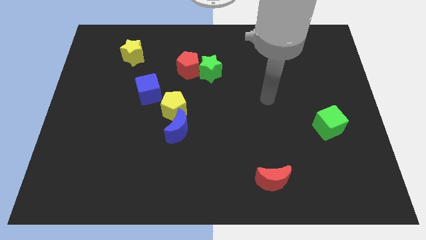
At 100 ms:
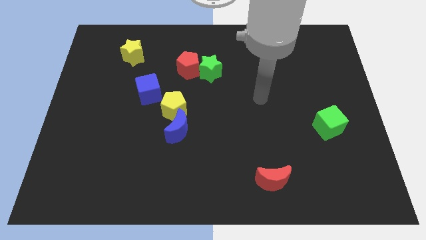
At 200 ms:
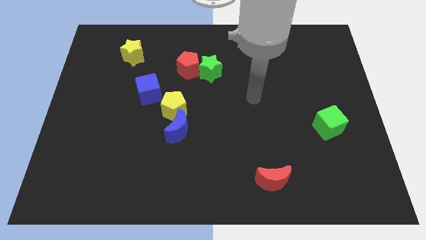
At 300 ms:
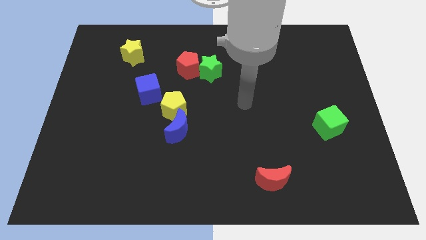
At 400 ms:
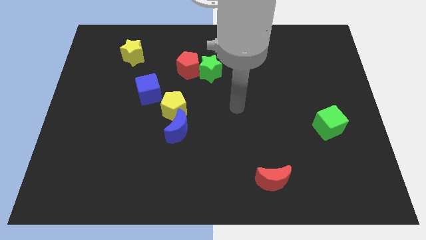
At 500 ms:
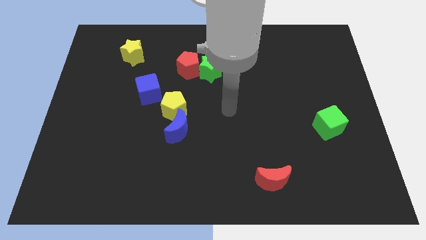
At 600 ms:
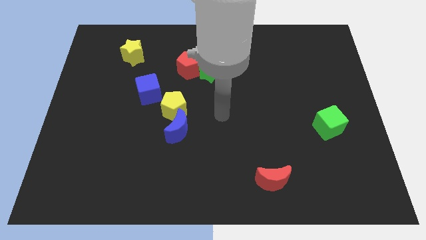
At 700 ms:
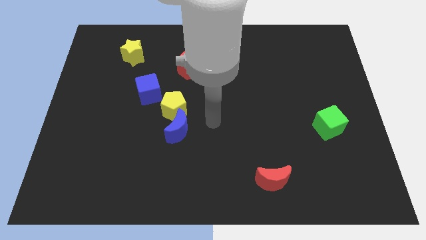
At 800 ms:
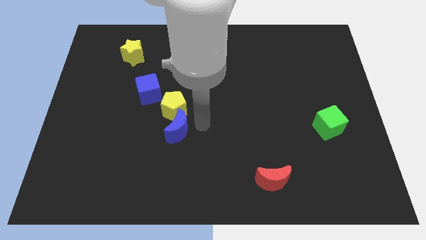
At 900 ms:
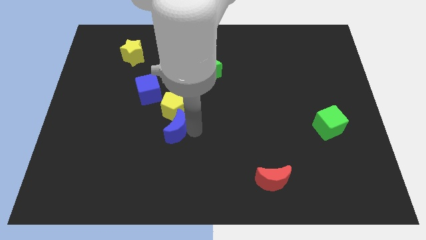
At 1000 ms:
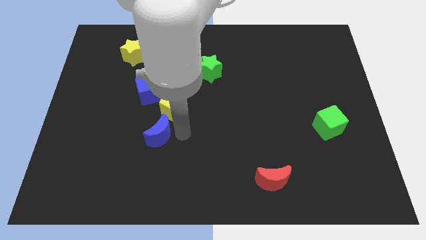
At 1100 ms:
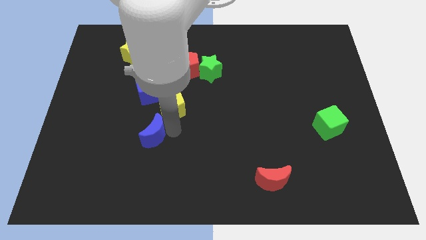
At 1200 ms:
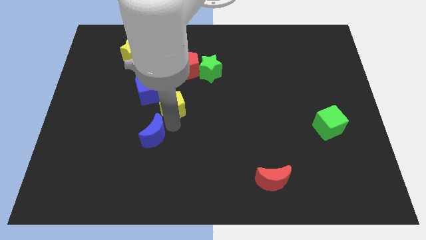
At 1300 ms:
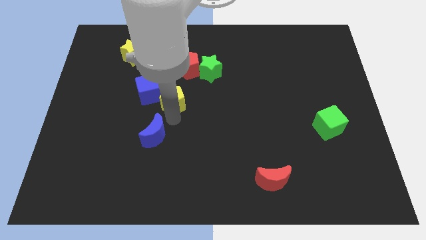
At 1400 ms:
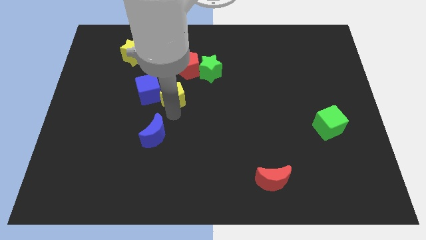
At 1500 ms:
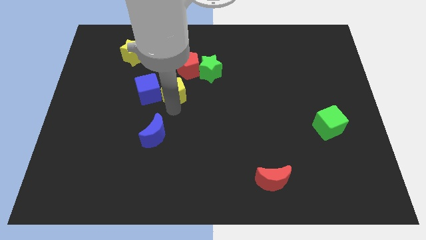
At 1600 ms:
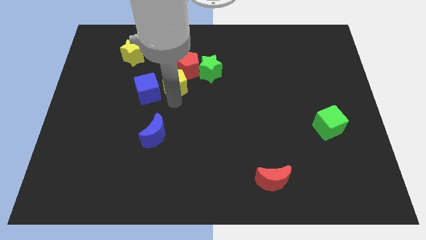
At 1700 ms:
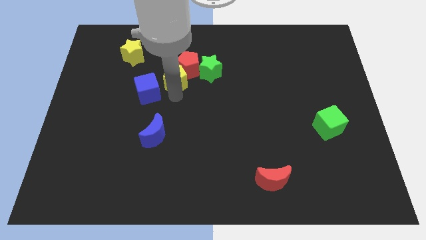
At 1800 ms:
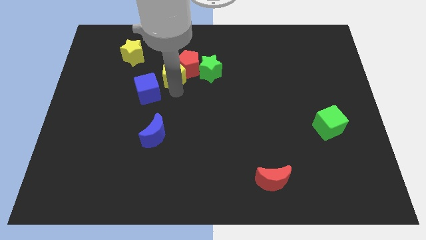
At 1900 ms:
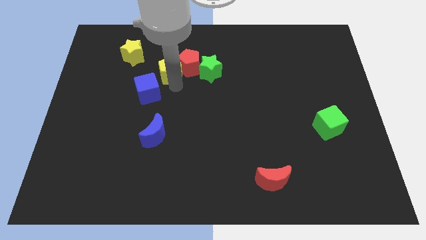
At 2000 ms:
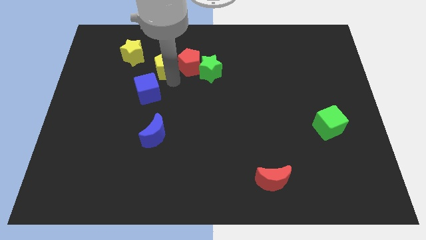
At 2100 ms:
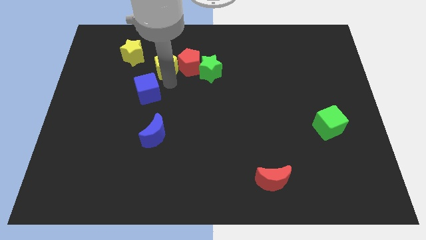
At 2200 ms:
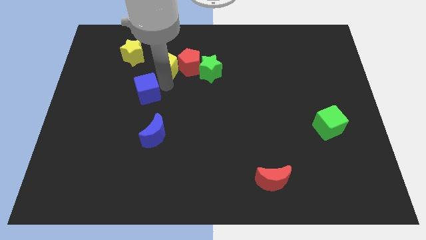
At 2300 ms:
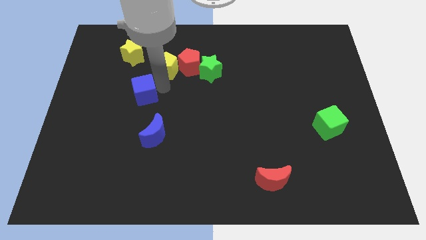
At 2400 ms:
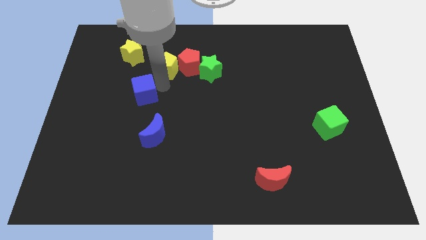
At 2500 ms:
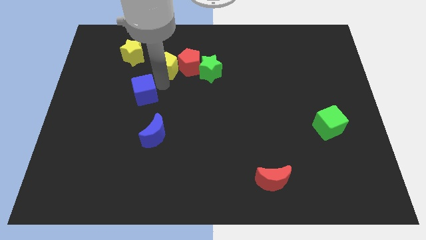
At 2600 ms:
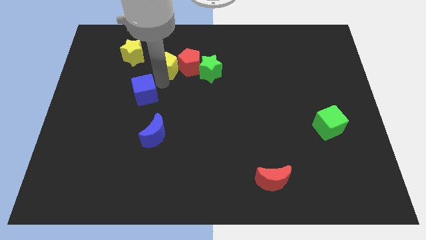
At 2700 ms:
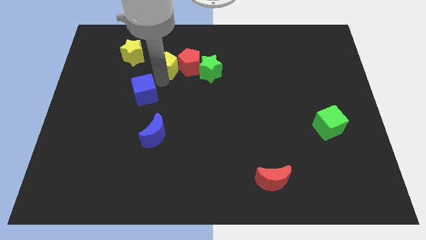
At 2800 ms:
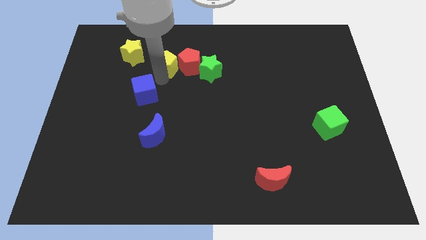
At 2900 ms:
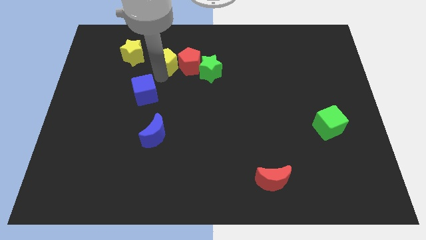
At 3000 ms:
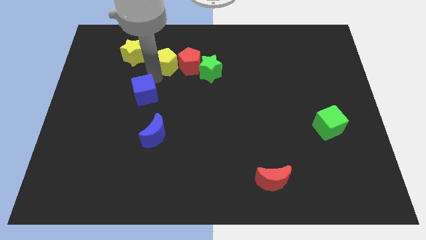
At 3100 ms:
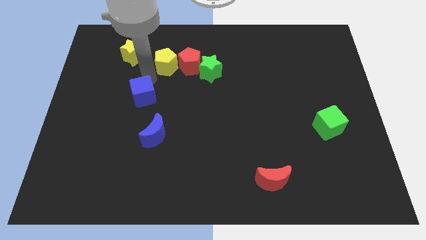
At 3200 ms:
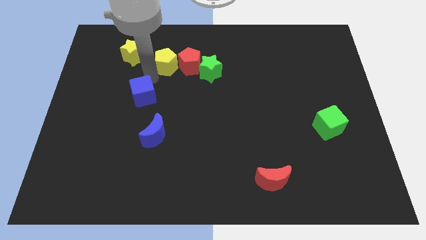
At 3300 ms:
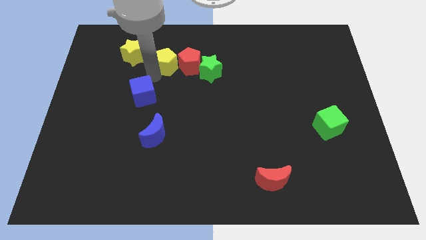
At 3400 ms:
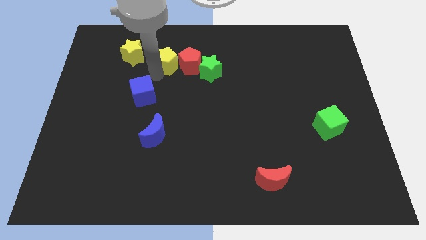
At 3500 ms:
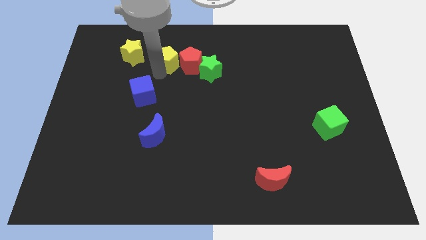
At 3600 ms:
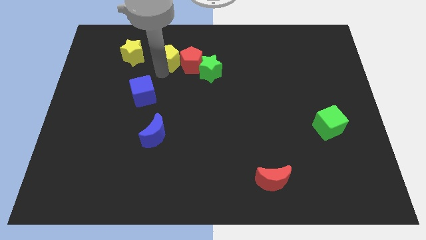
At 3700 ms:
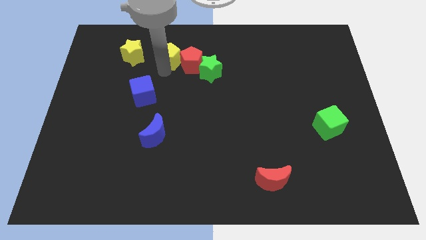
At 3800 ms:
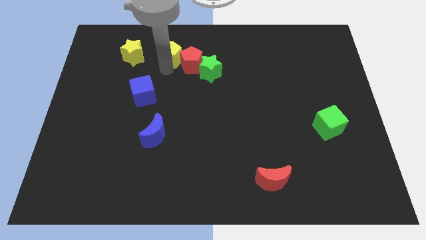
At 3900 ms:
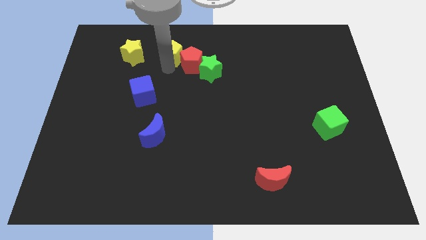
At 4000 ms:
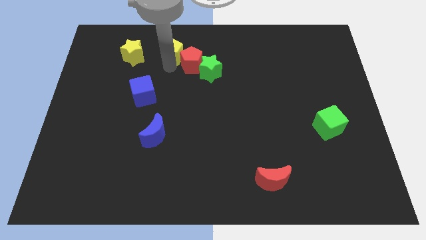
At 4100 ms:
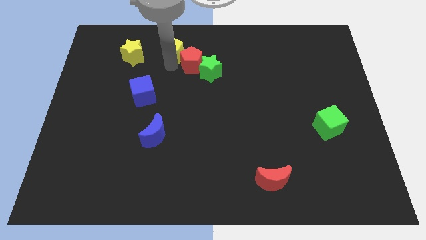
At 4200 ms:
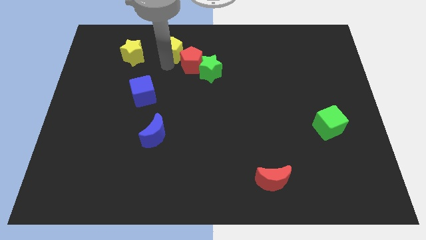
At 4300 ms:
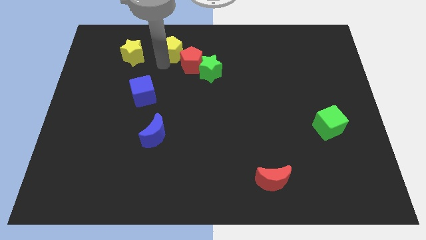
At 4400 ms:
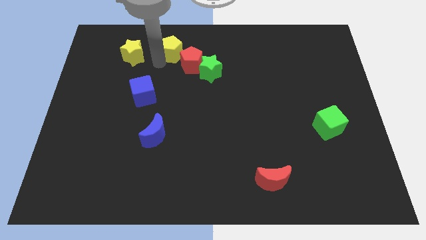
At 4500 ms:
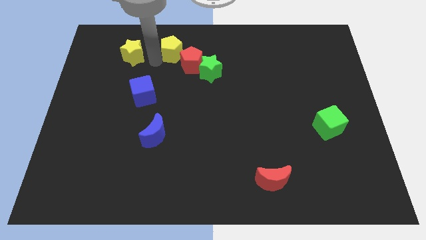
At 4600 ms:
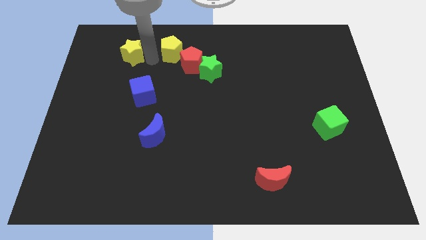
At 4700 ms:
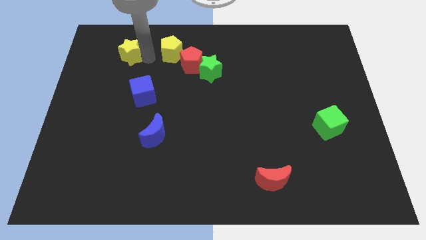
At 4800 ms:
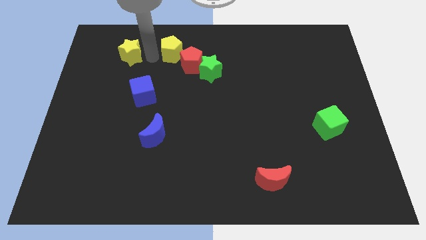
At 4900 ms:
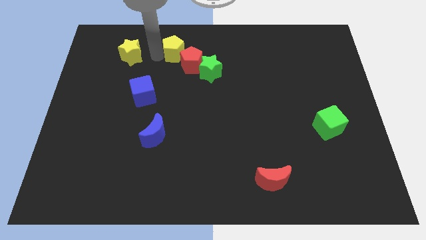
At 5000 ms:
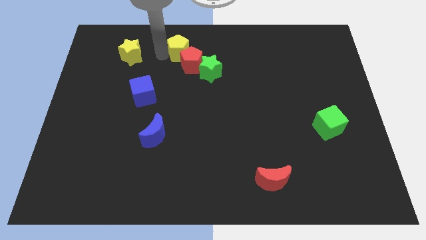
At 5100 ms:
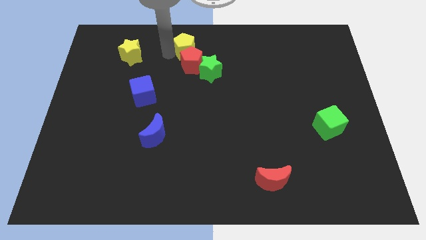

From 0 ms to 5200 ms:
slide the yellow pentagon to the towards your base

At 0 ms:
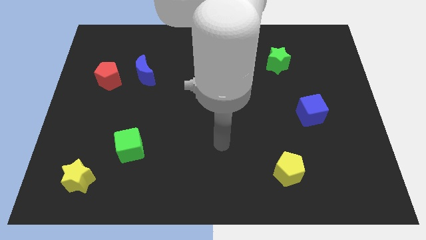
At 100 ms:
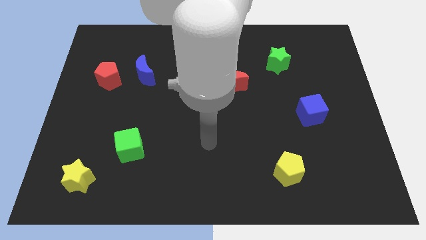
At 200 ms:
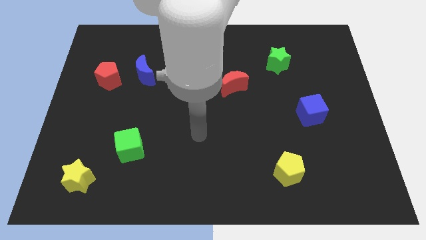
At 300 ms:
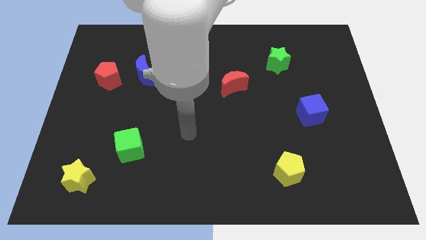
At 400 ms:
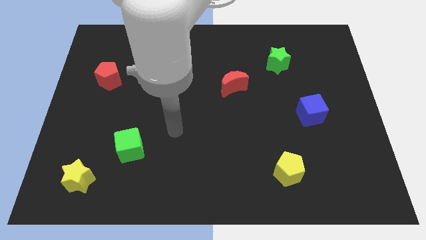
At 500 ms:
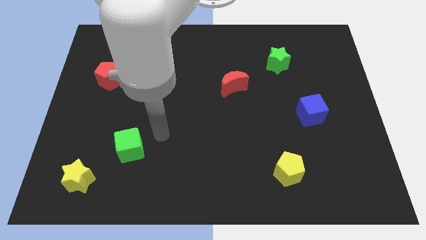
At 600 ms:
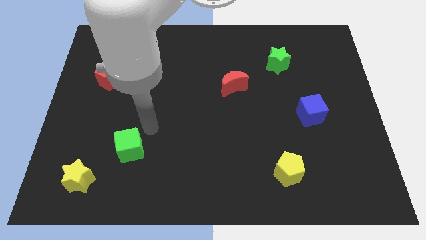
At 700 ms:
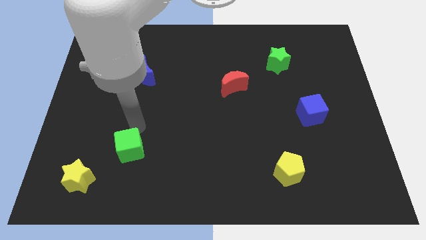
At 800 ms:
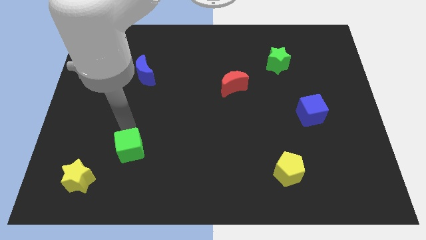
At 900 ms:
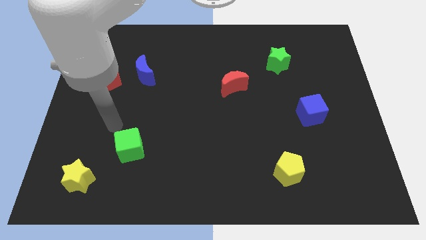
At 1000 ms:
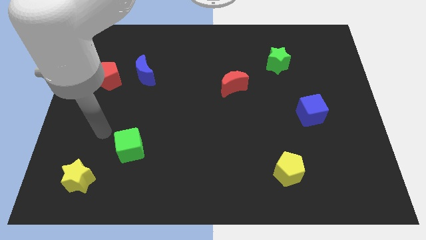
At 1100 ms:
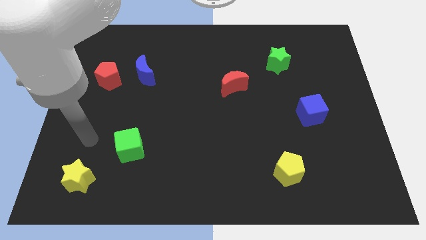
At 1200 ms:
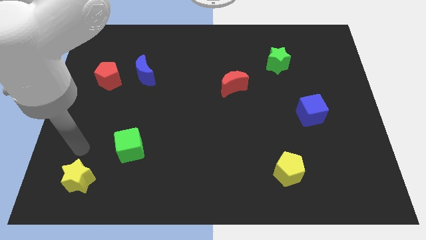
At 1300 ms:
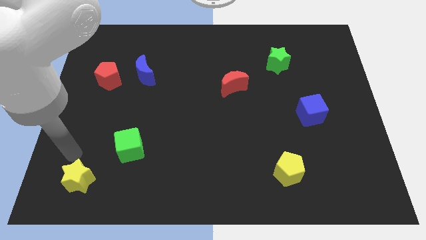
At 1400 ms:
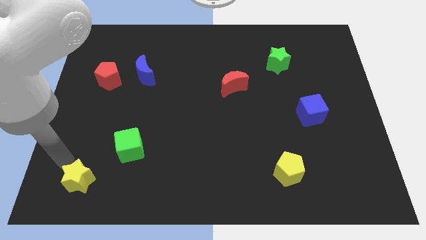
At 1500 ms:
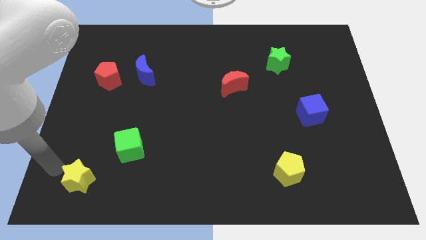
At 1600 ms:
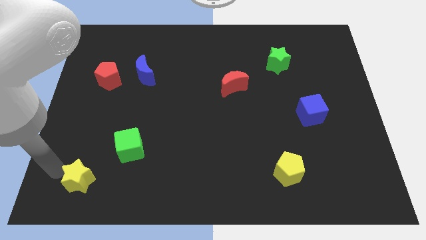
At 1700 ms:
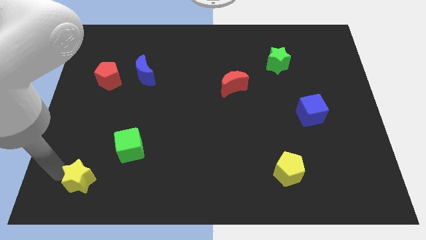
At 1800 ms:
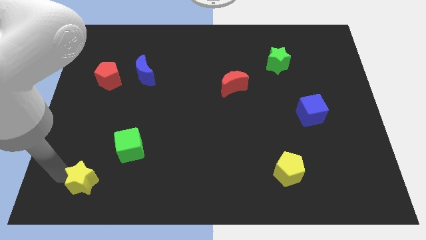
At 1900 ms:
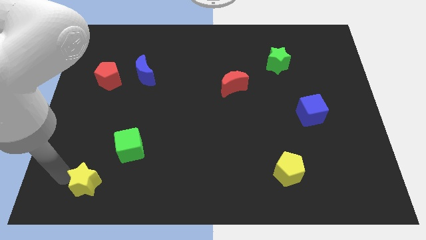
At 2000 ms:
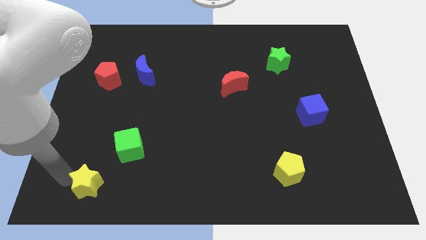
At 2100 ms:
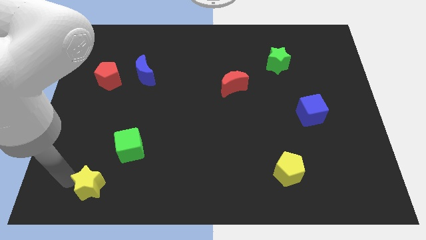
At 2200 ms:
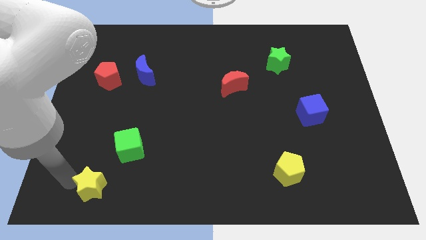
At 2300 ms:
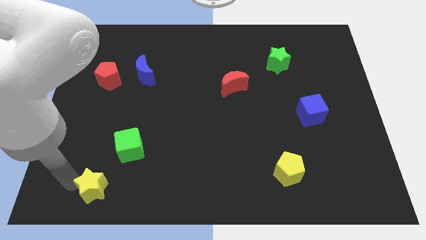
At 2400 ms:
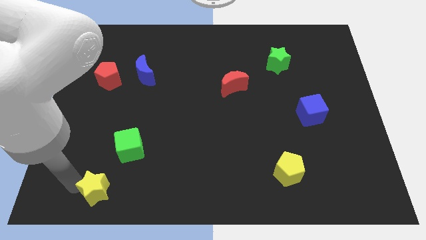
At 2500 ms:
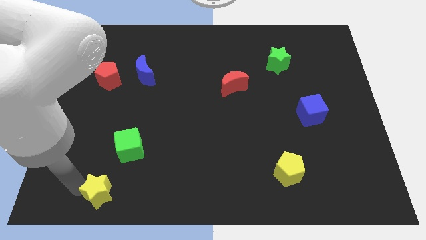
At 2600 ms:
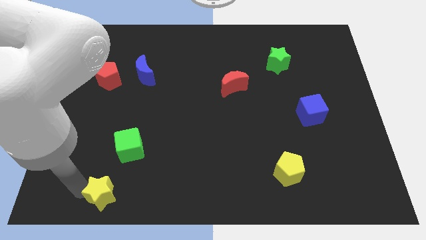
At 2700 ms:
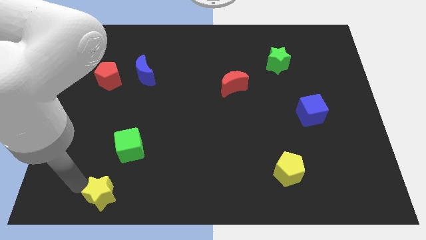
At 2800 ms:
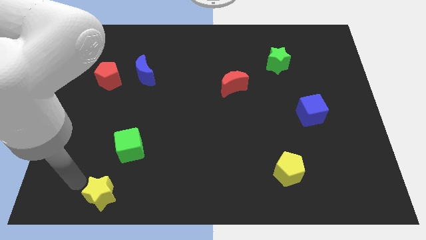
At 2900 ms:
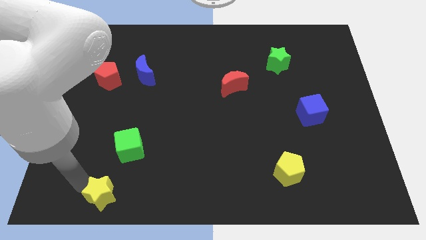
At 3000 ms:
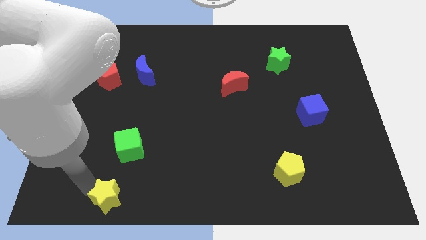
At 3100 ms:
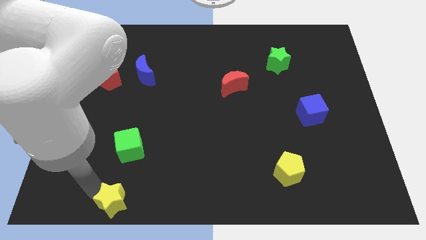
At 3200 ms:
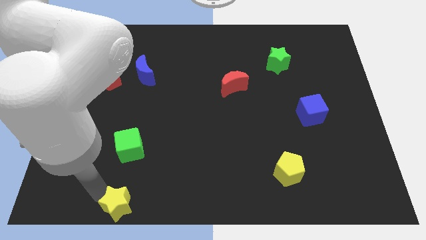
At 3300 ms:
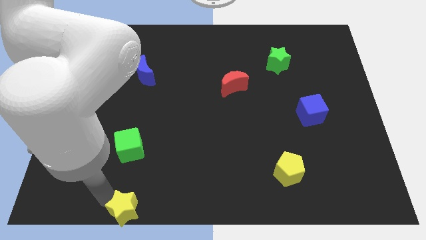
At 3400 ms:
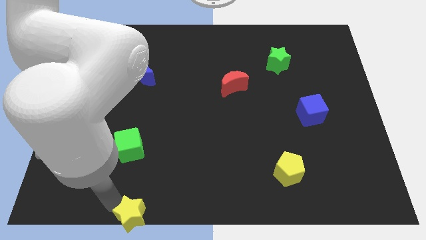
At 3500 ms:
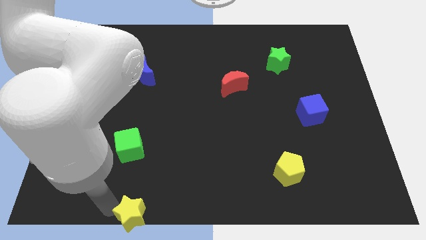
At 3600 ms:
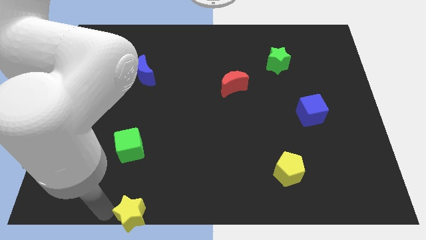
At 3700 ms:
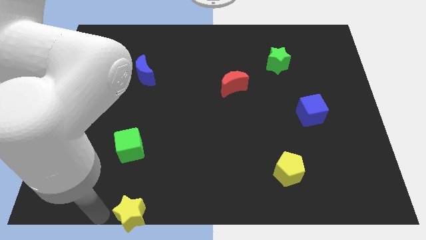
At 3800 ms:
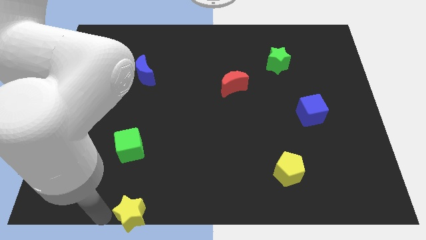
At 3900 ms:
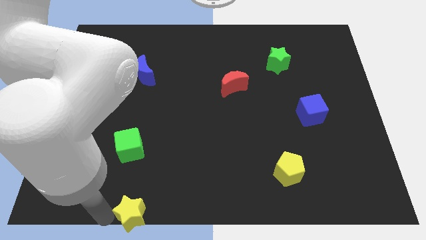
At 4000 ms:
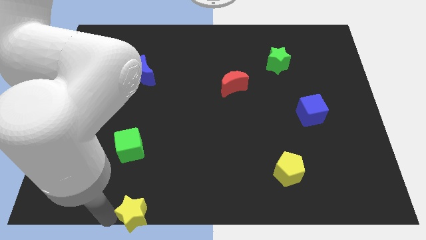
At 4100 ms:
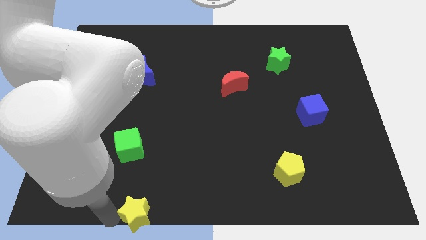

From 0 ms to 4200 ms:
put the yellow star to the bottom
